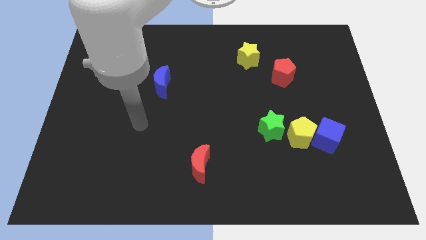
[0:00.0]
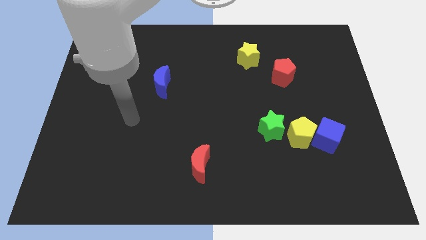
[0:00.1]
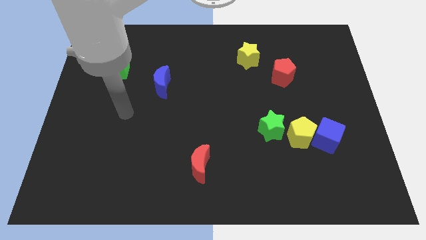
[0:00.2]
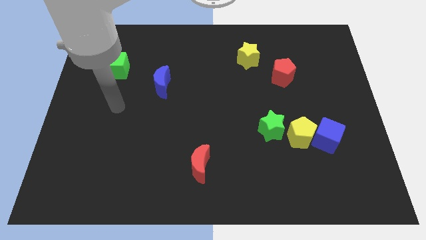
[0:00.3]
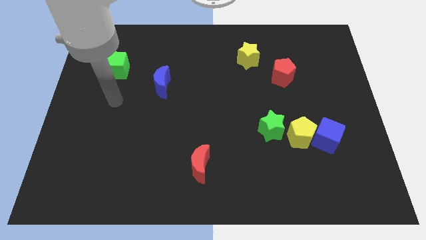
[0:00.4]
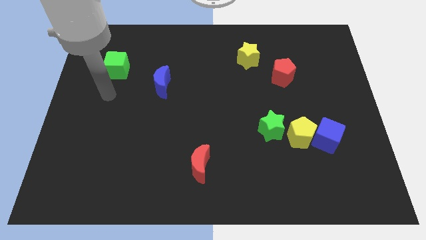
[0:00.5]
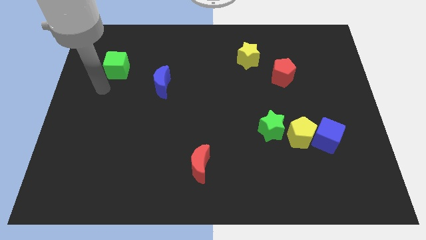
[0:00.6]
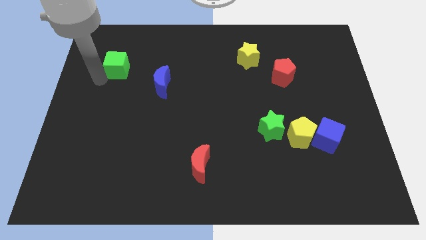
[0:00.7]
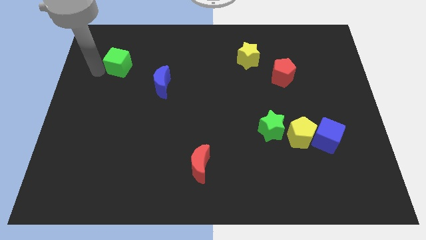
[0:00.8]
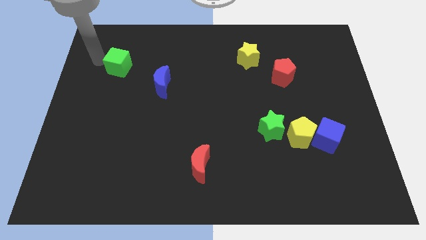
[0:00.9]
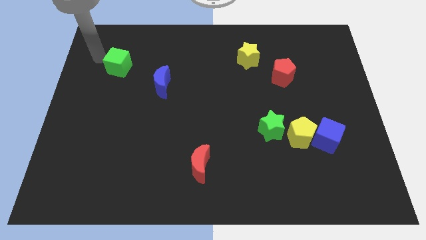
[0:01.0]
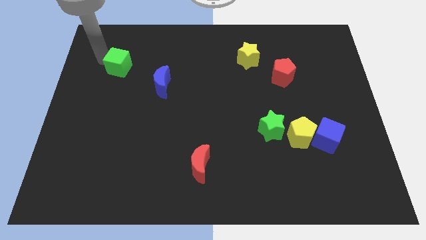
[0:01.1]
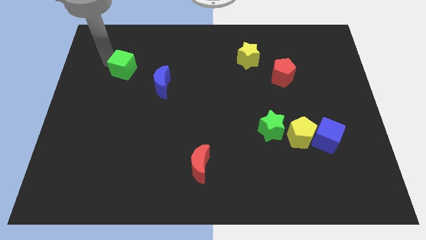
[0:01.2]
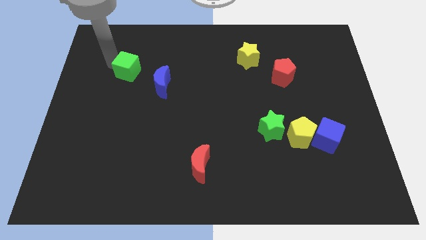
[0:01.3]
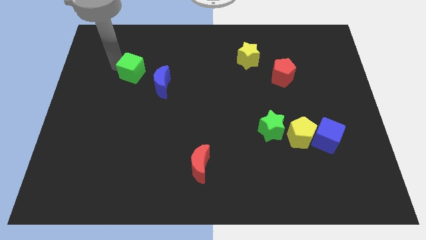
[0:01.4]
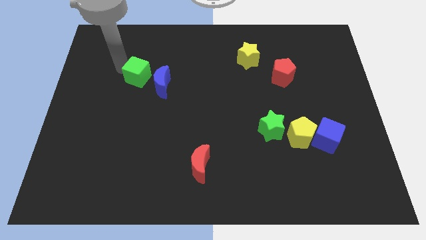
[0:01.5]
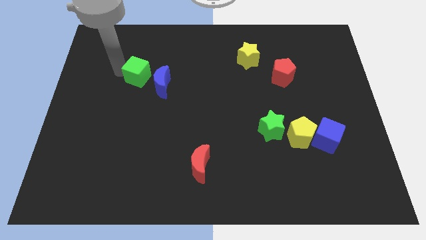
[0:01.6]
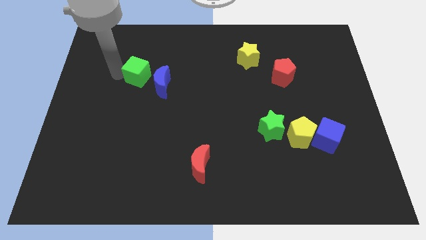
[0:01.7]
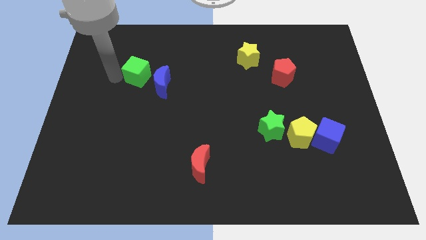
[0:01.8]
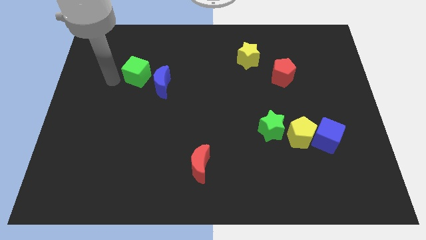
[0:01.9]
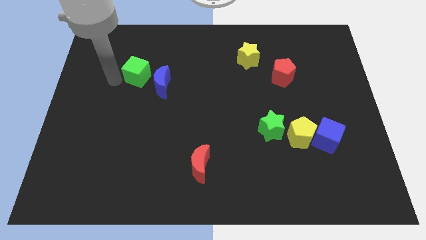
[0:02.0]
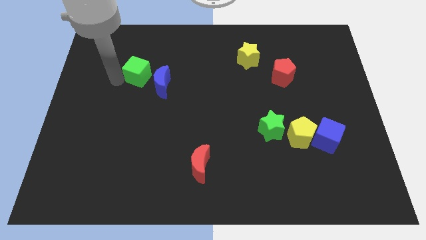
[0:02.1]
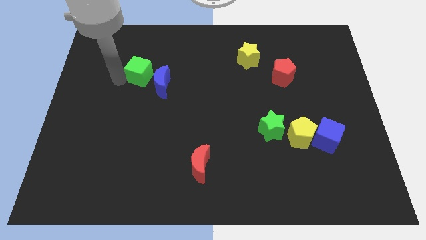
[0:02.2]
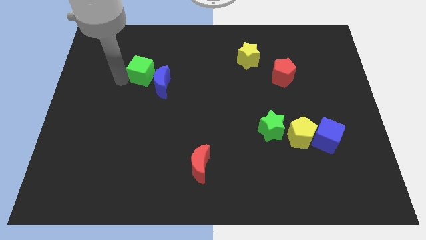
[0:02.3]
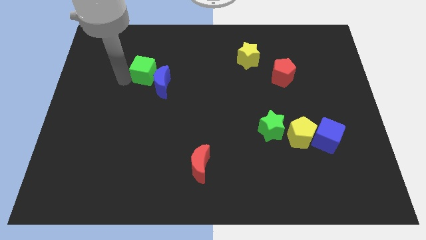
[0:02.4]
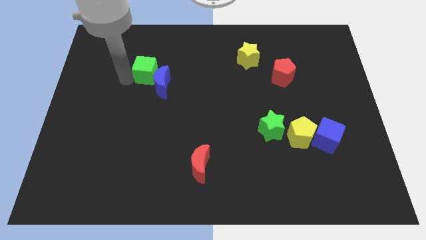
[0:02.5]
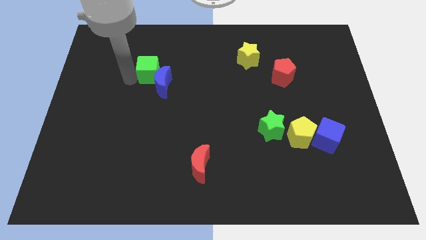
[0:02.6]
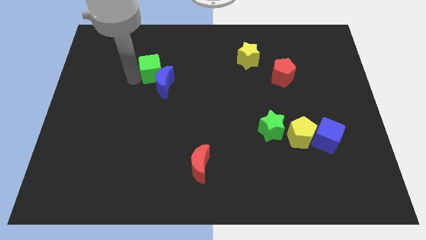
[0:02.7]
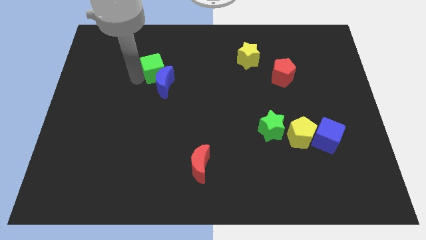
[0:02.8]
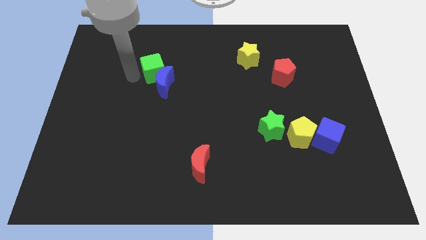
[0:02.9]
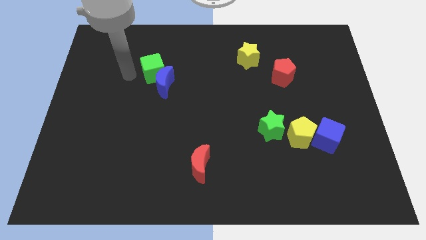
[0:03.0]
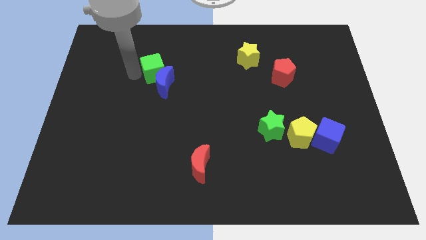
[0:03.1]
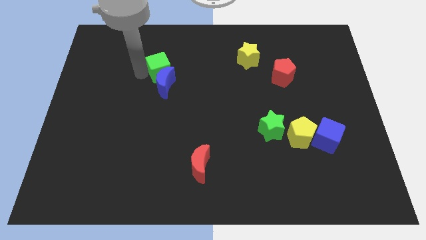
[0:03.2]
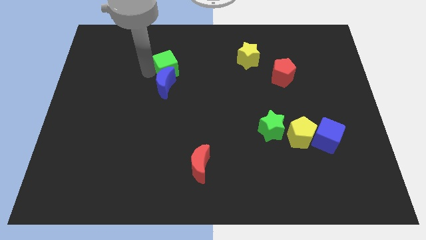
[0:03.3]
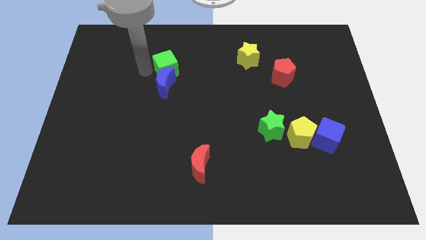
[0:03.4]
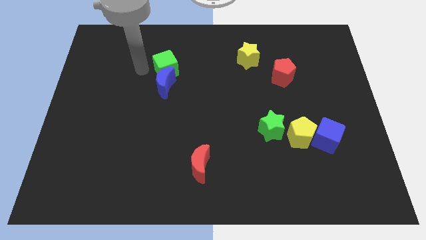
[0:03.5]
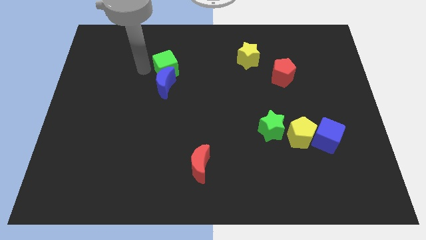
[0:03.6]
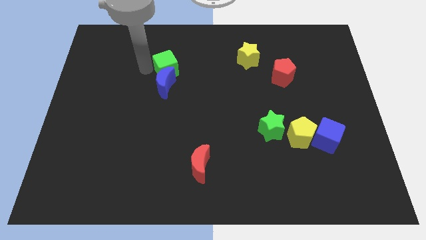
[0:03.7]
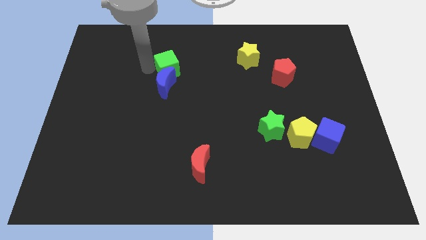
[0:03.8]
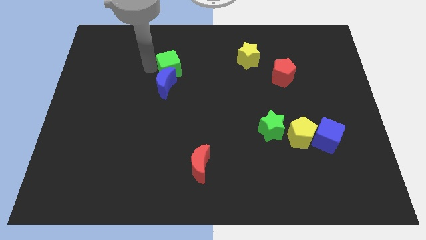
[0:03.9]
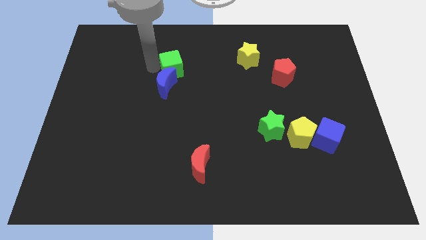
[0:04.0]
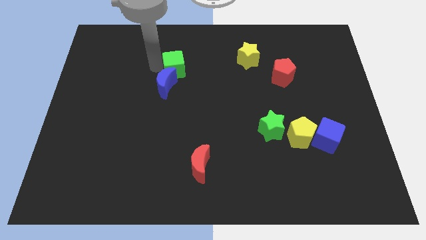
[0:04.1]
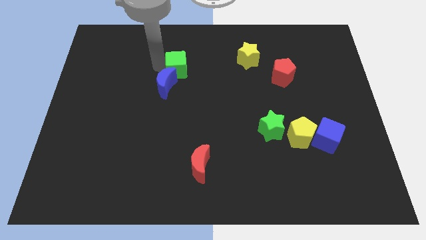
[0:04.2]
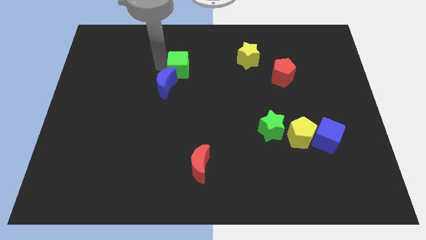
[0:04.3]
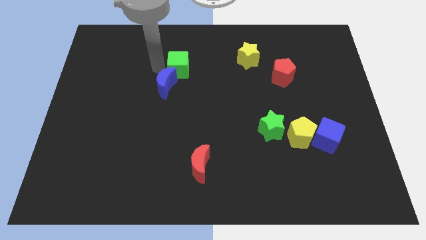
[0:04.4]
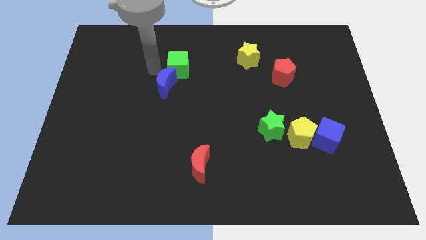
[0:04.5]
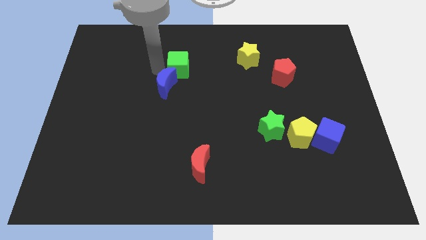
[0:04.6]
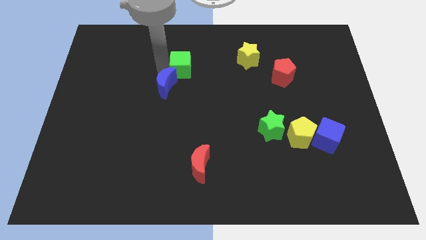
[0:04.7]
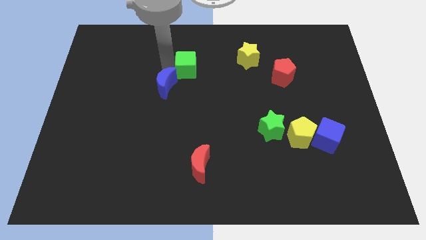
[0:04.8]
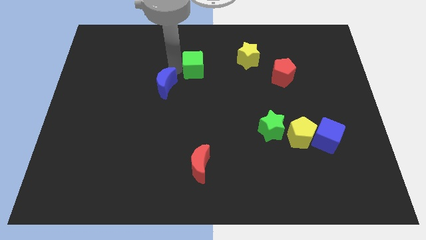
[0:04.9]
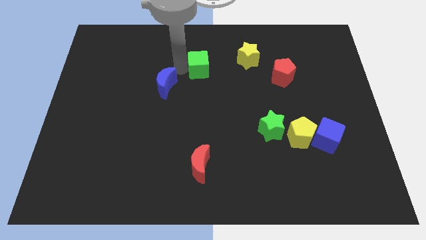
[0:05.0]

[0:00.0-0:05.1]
move the green cube right

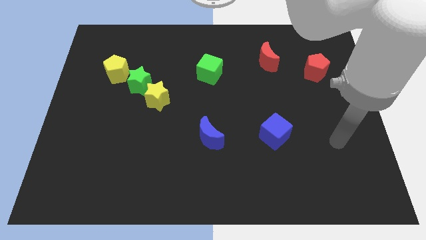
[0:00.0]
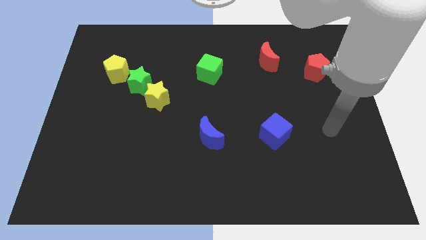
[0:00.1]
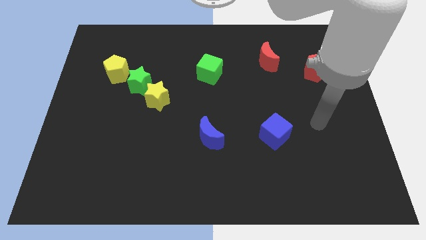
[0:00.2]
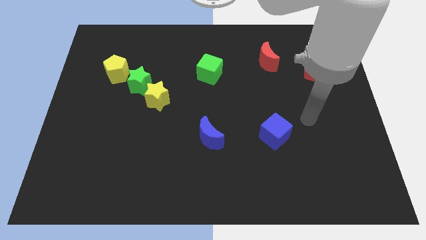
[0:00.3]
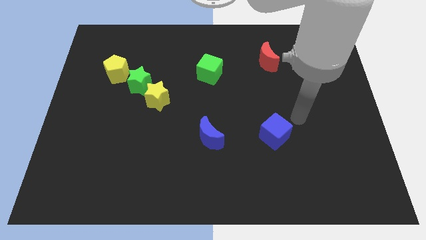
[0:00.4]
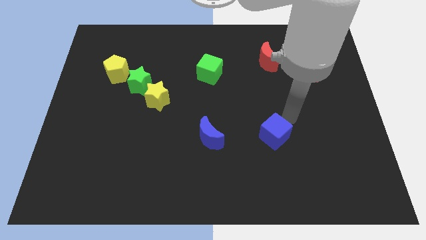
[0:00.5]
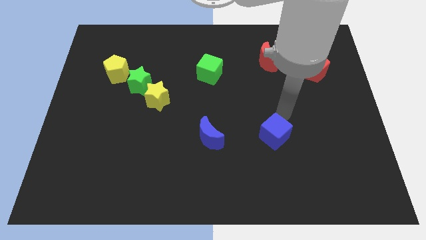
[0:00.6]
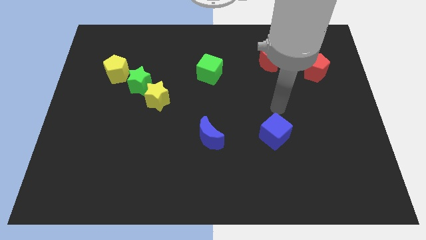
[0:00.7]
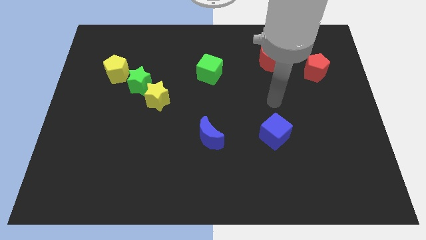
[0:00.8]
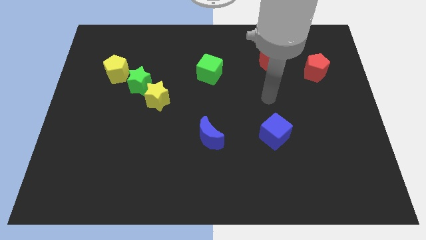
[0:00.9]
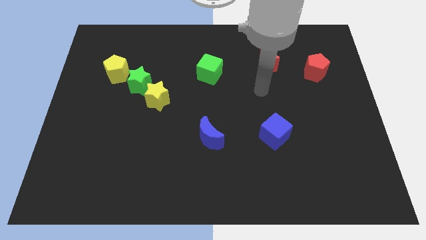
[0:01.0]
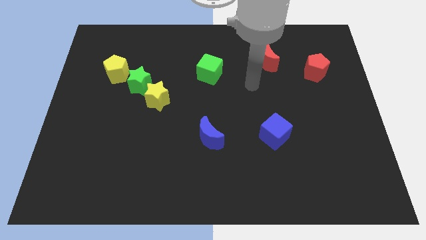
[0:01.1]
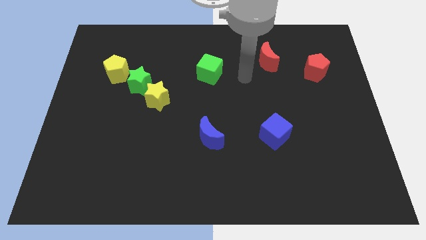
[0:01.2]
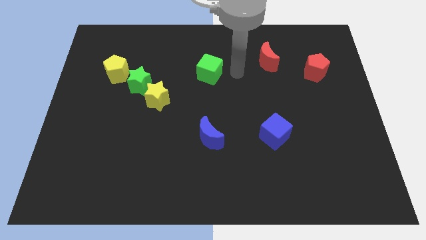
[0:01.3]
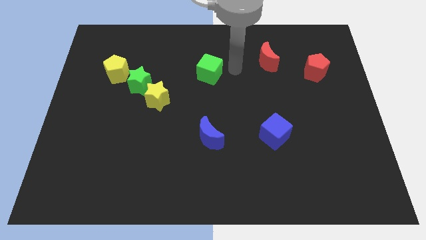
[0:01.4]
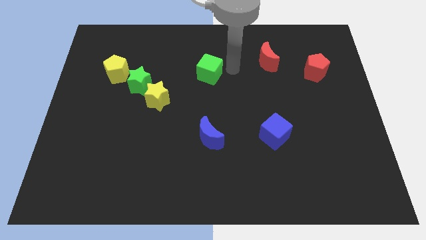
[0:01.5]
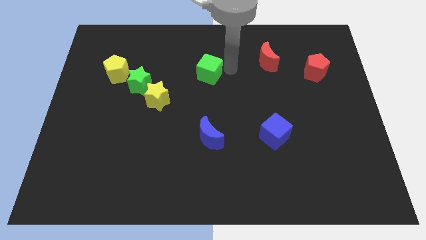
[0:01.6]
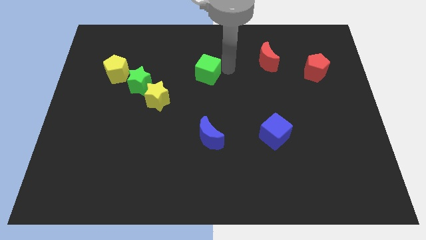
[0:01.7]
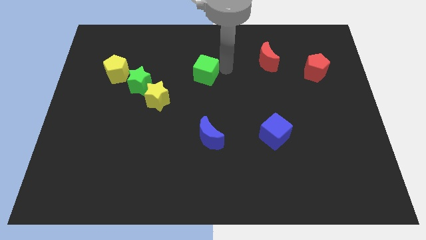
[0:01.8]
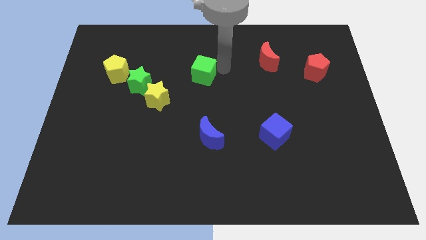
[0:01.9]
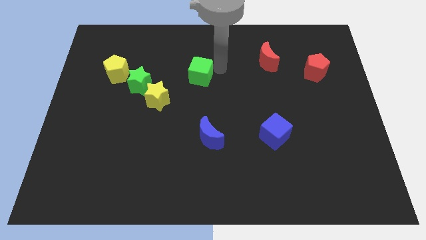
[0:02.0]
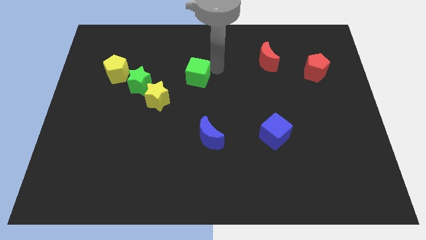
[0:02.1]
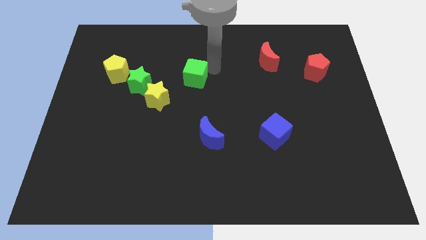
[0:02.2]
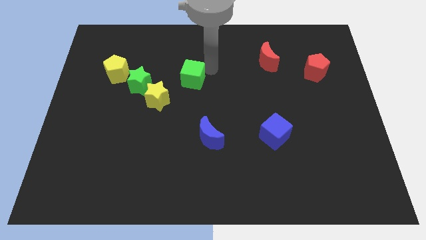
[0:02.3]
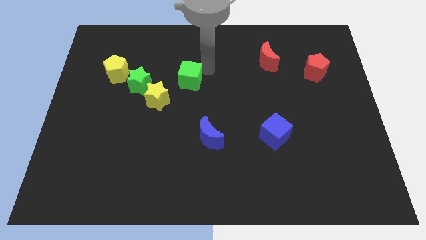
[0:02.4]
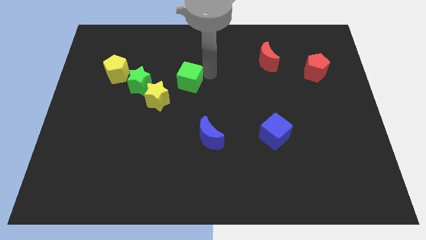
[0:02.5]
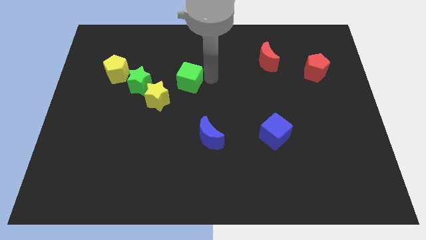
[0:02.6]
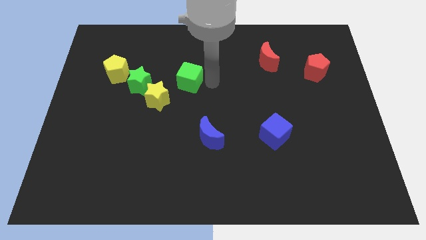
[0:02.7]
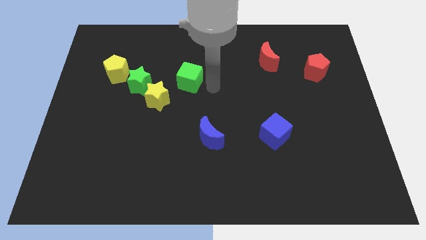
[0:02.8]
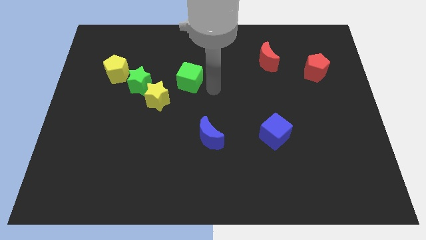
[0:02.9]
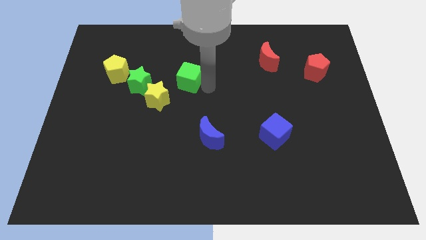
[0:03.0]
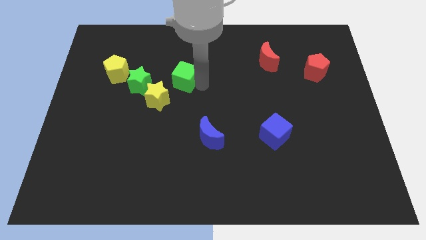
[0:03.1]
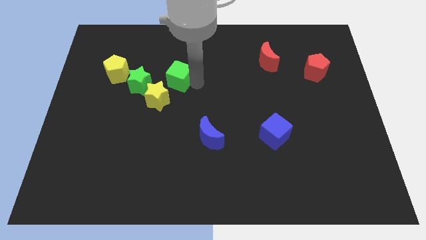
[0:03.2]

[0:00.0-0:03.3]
move the green cube left slightly
